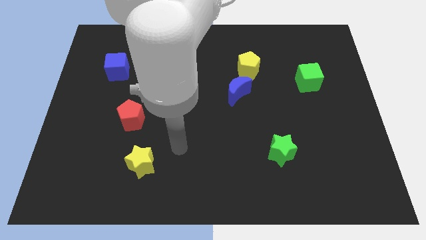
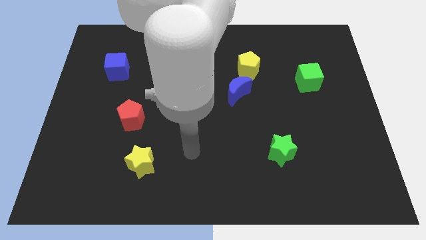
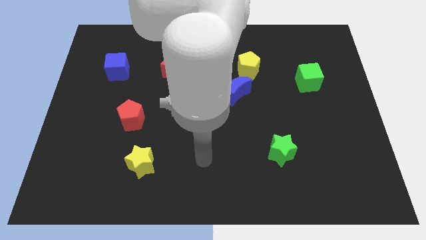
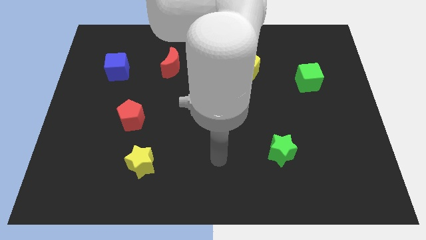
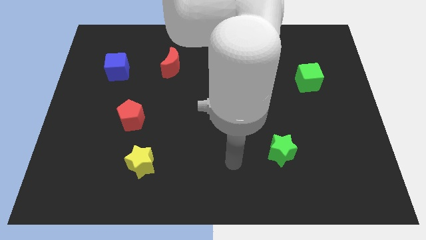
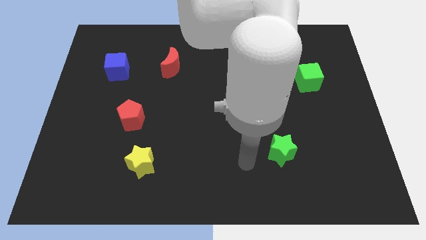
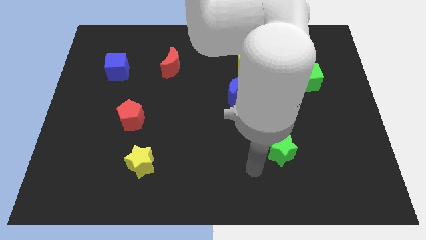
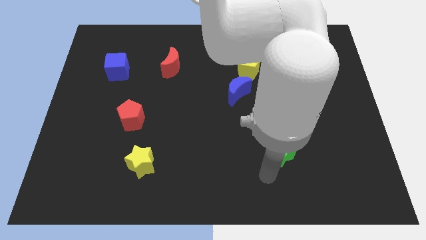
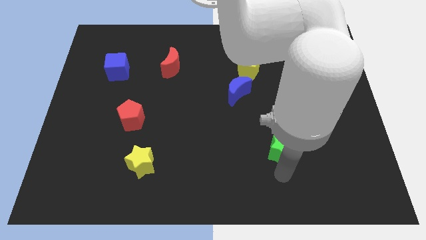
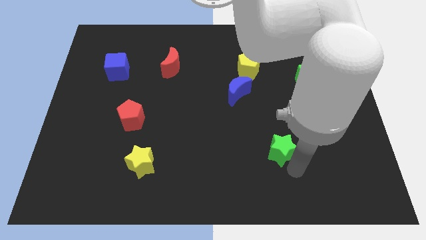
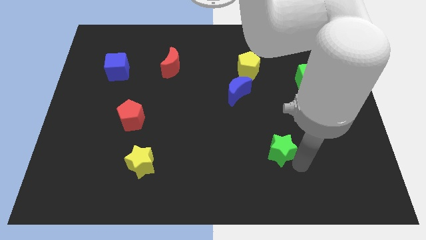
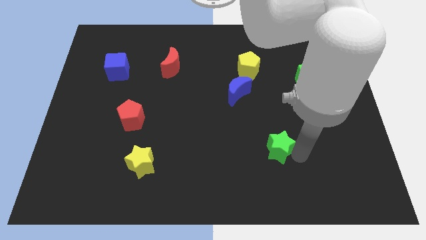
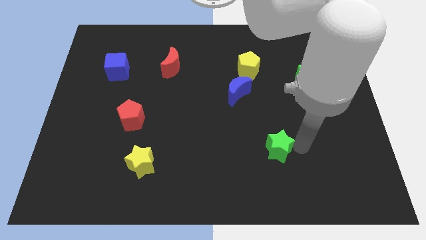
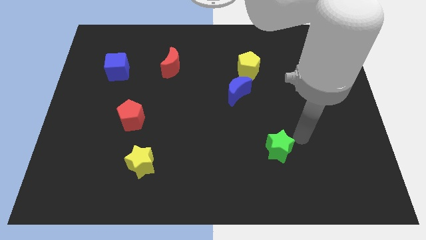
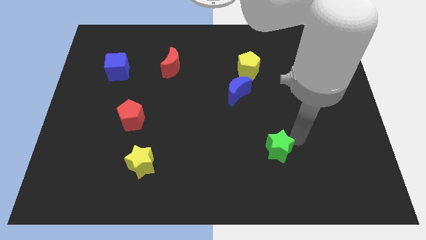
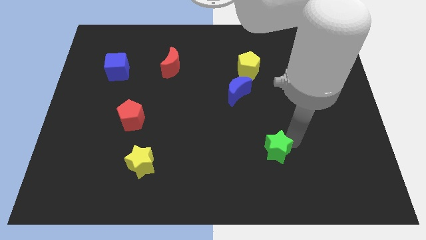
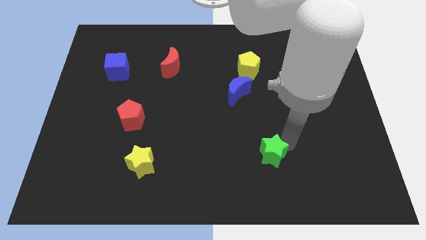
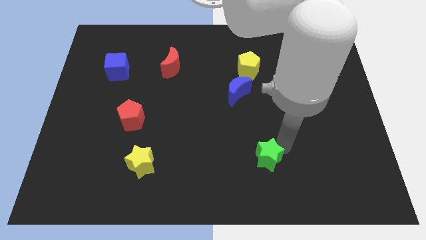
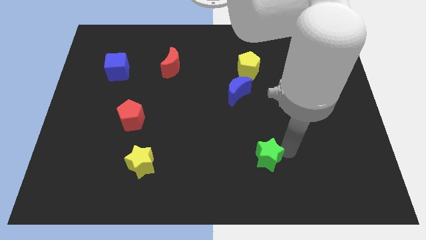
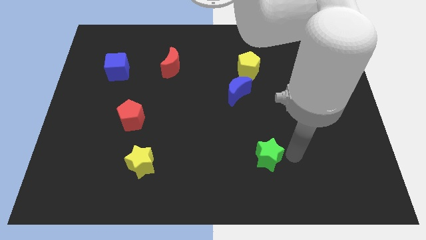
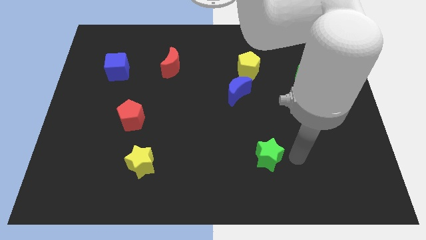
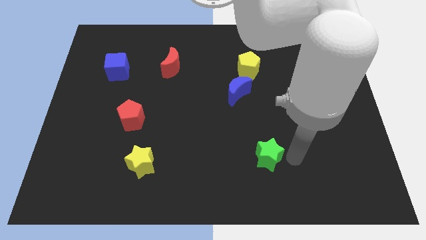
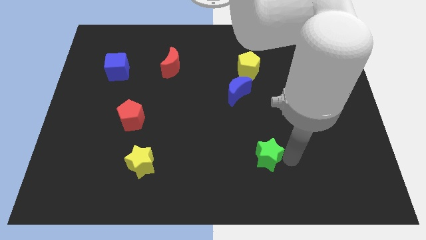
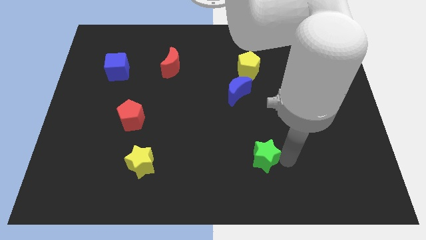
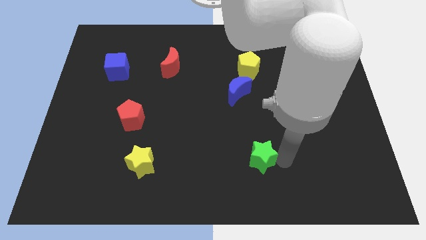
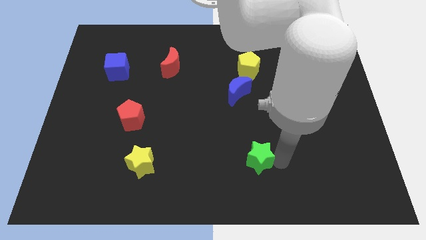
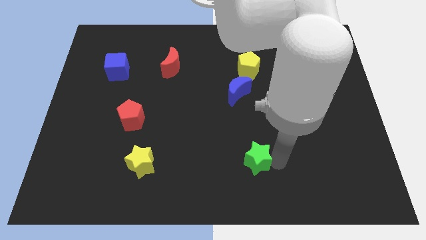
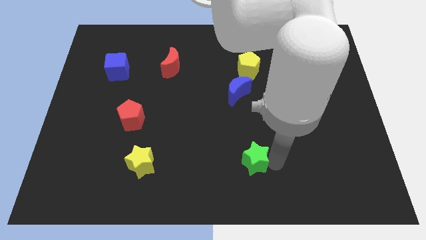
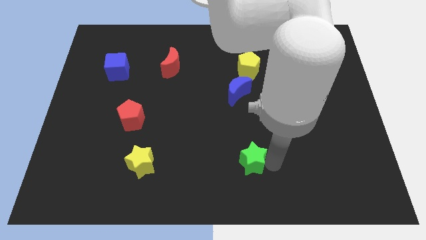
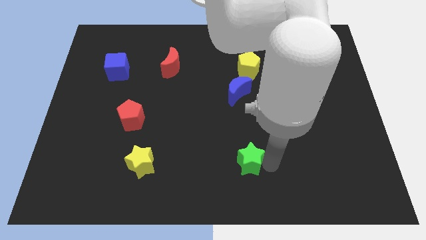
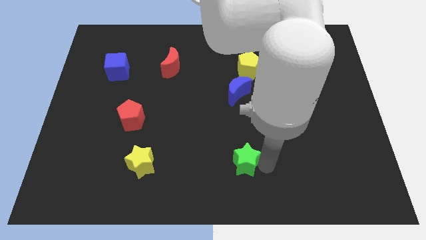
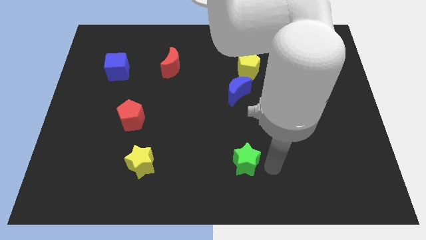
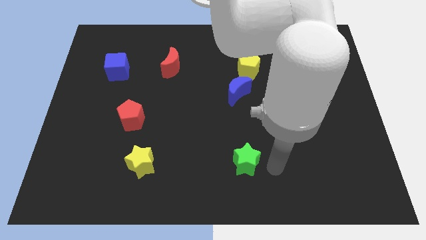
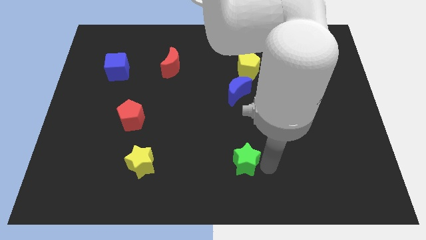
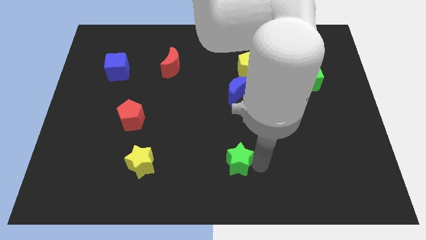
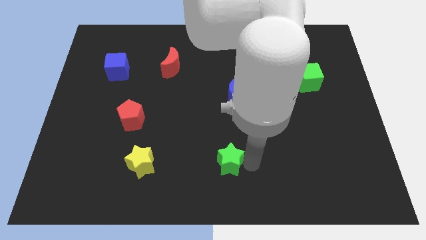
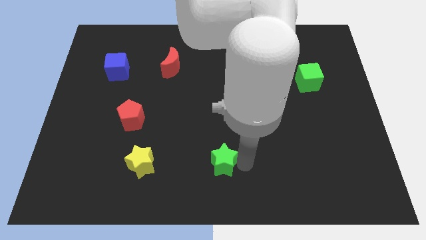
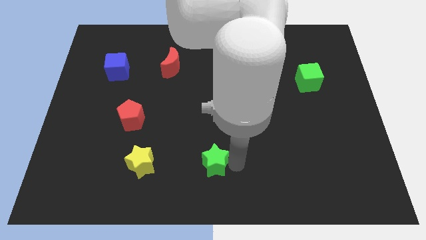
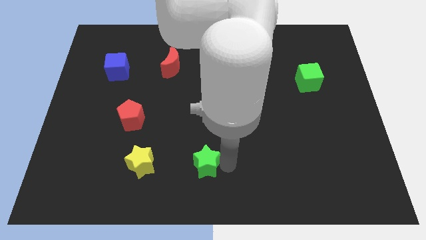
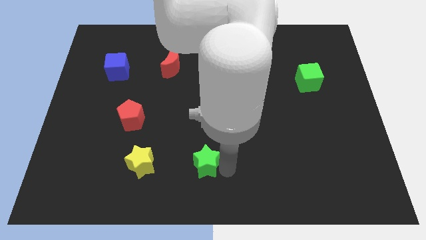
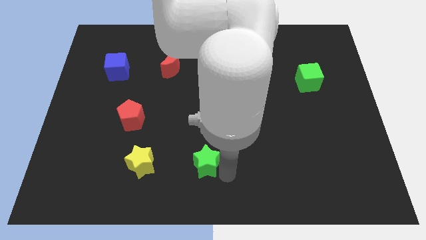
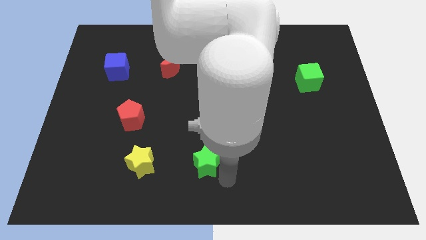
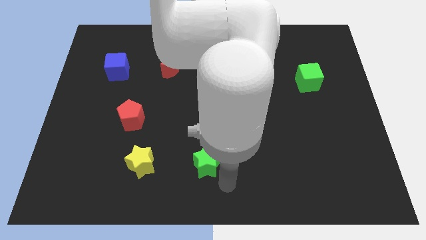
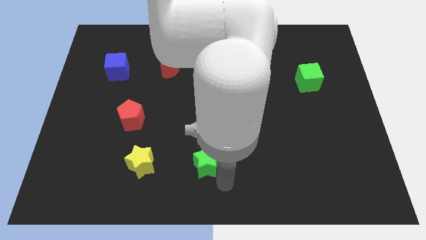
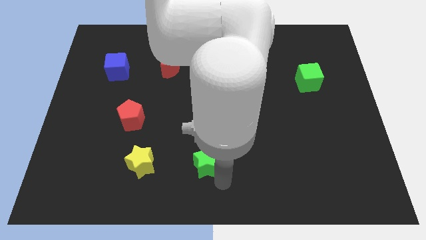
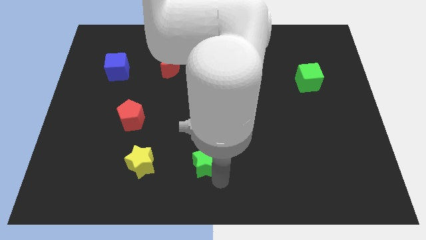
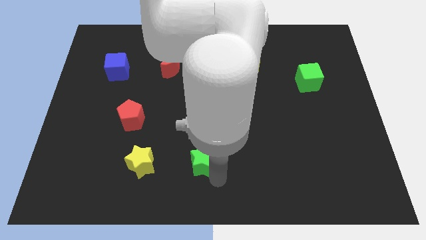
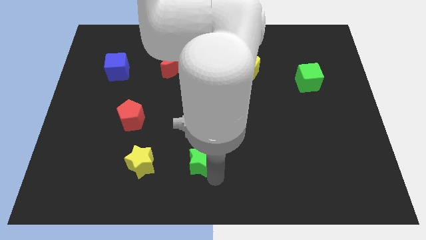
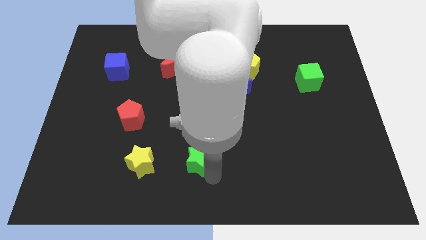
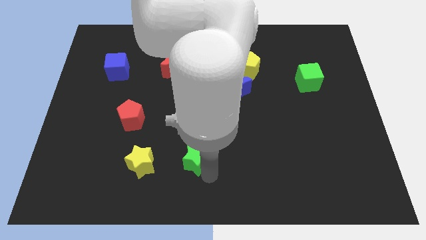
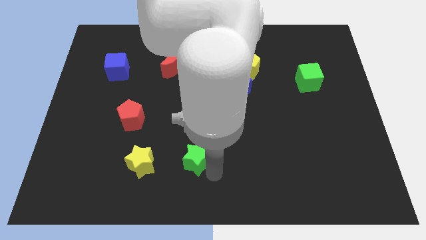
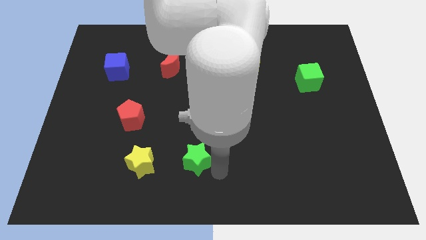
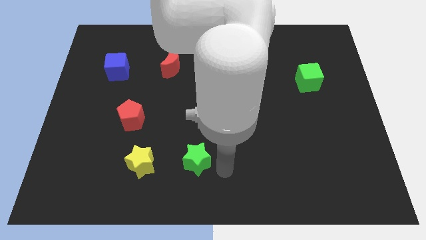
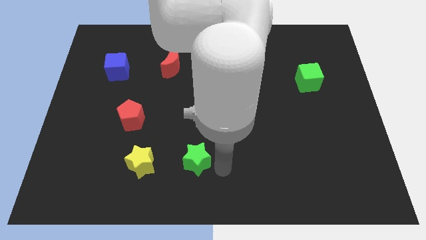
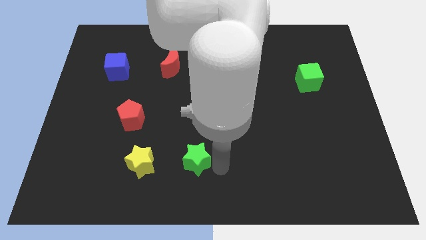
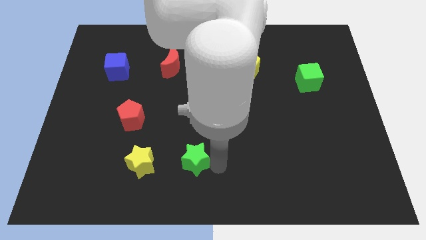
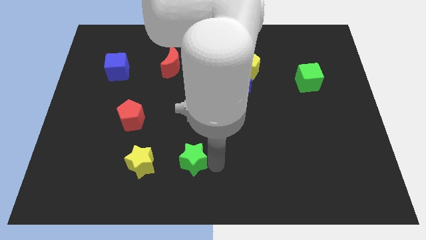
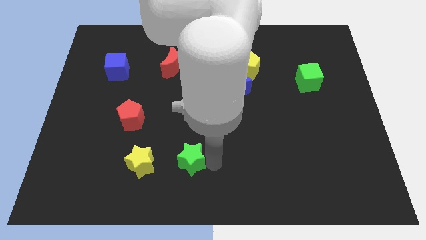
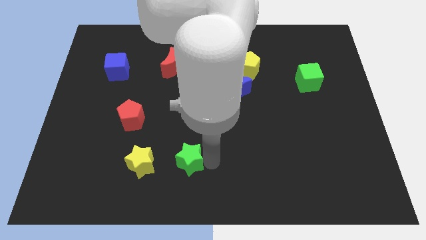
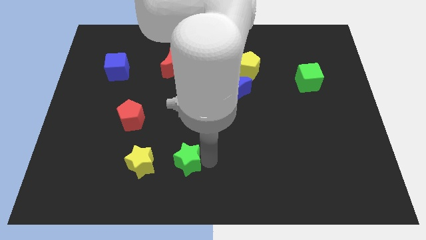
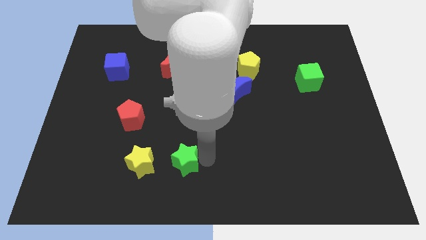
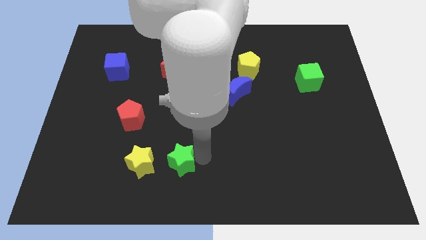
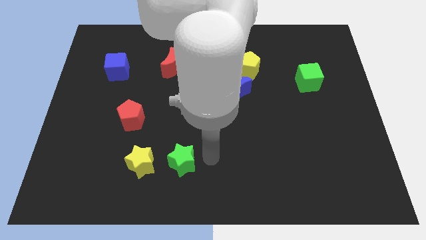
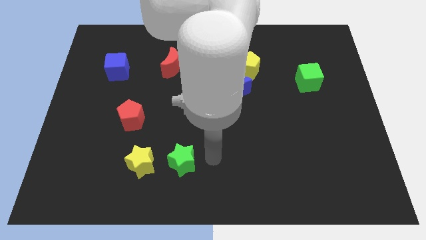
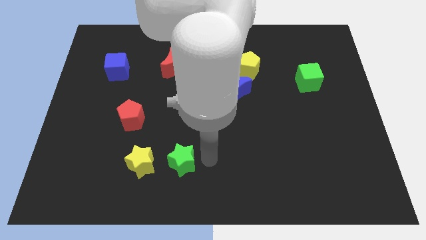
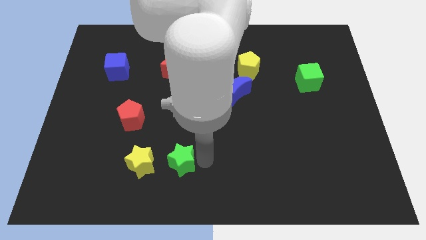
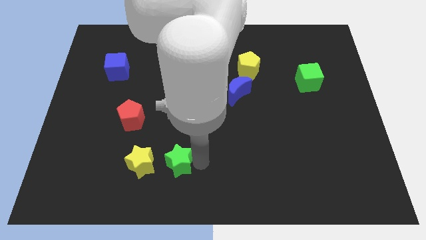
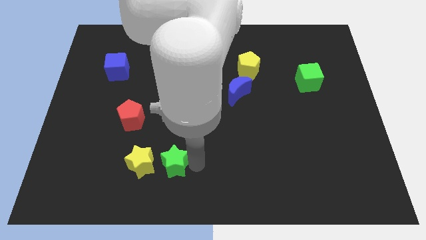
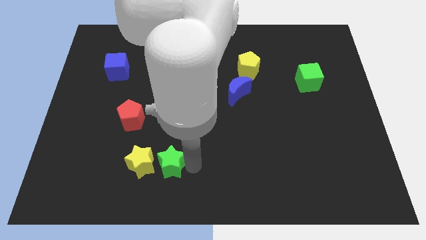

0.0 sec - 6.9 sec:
move the green star towards the yellow star
